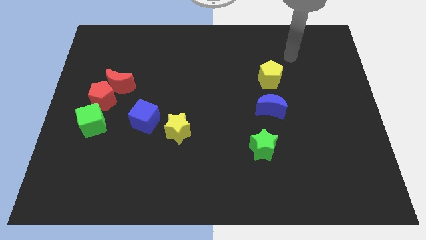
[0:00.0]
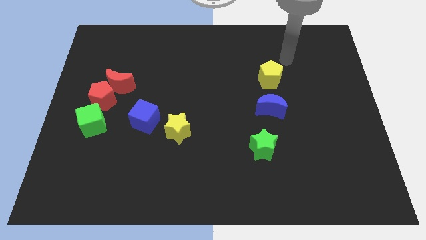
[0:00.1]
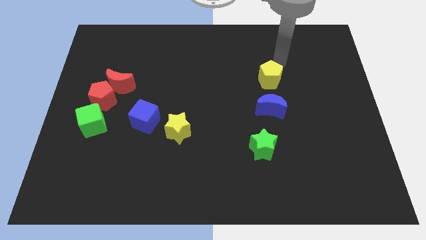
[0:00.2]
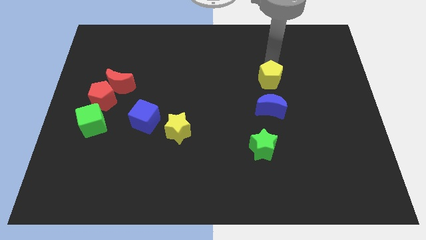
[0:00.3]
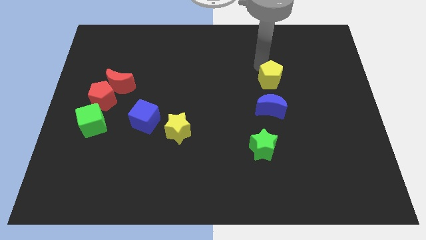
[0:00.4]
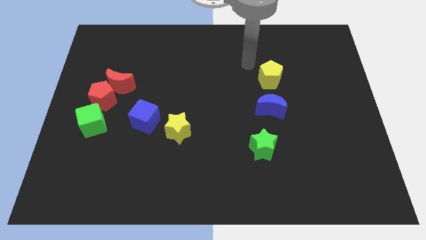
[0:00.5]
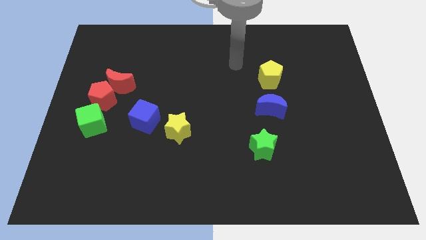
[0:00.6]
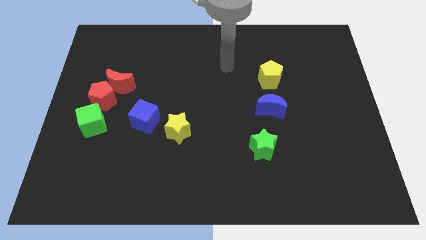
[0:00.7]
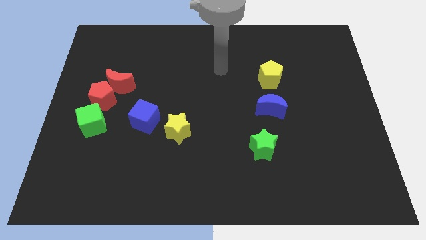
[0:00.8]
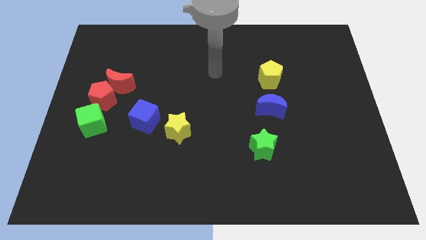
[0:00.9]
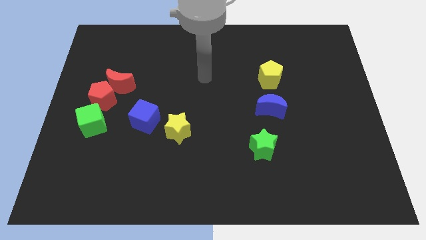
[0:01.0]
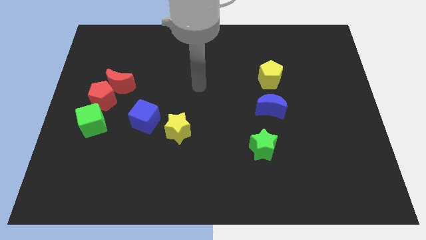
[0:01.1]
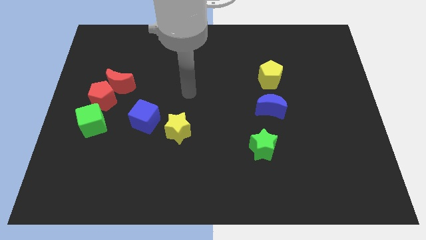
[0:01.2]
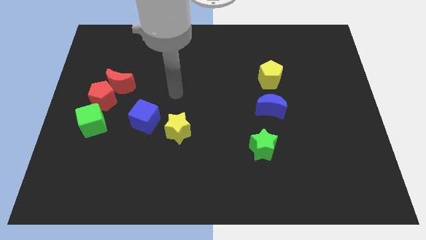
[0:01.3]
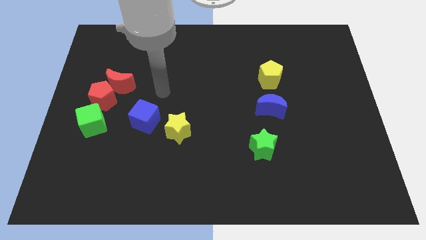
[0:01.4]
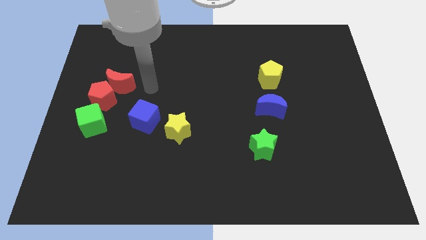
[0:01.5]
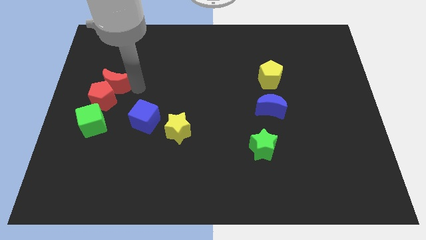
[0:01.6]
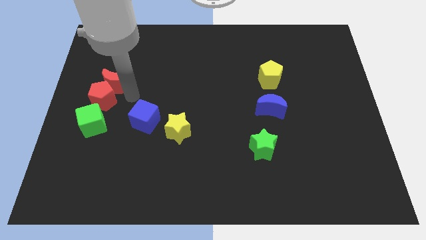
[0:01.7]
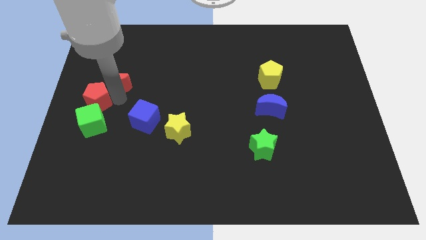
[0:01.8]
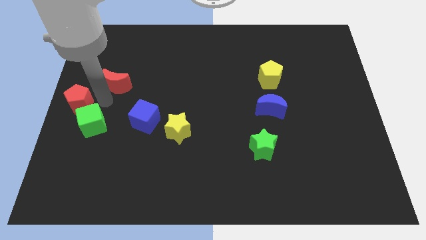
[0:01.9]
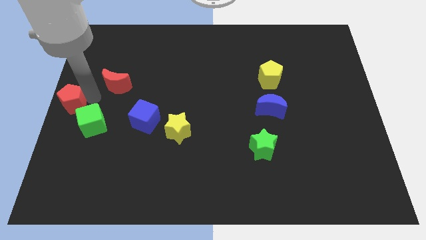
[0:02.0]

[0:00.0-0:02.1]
move the red moon away from the red pentagon

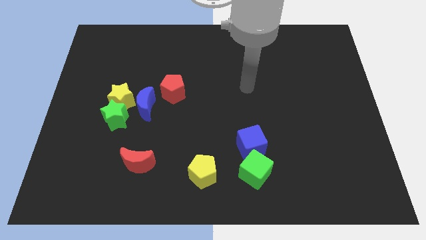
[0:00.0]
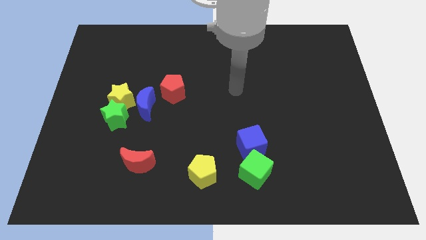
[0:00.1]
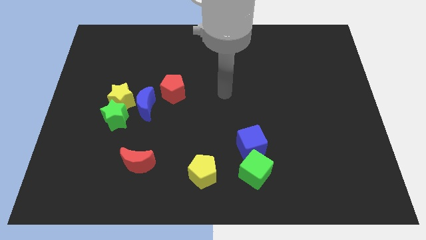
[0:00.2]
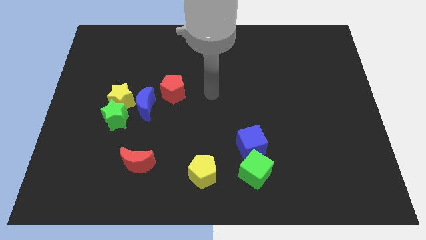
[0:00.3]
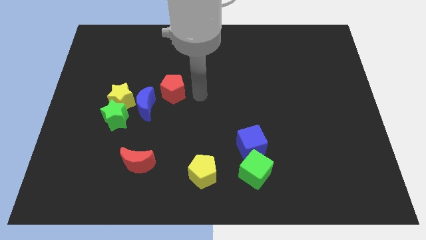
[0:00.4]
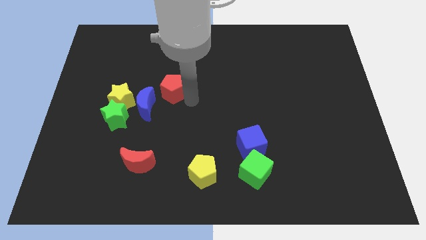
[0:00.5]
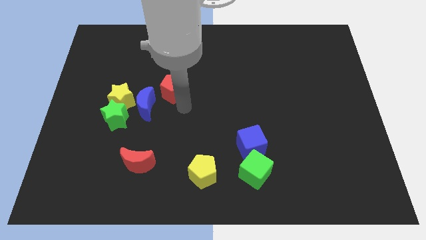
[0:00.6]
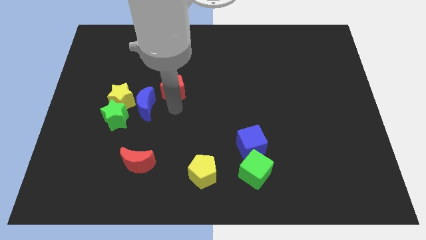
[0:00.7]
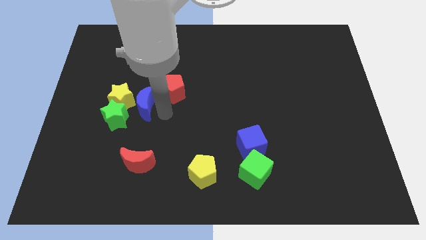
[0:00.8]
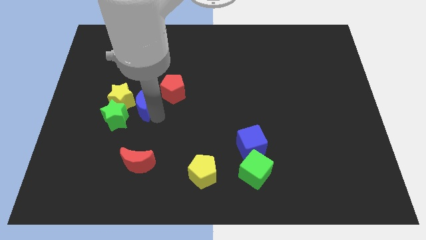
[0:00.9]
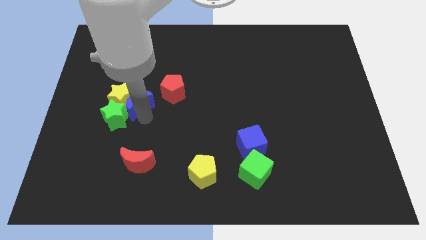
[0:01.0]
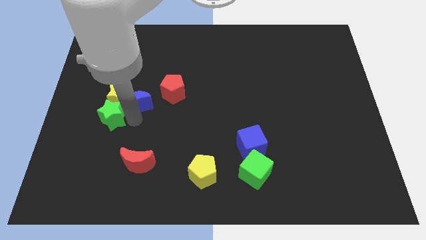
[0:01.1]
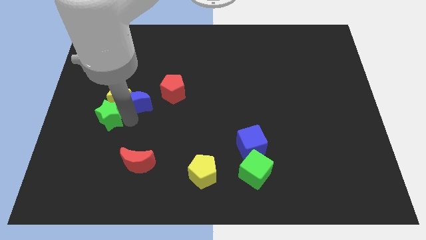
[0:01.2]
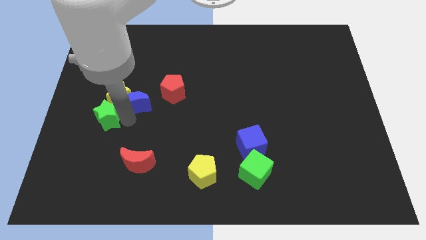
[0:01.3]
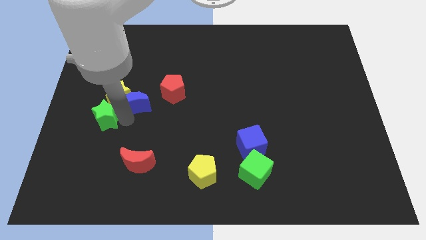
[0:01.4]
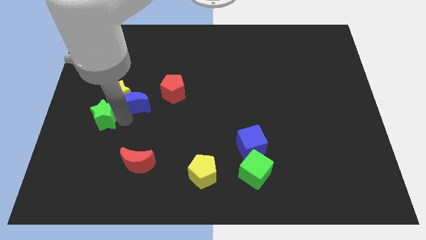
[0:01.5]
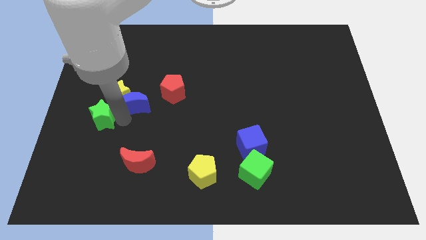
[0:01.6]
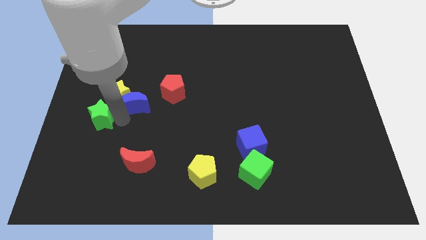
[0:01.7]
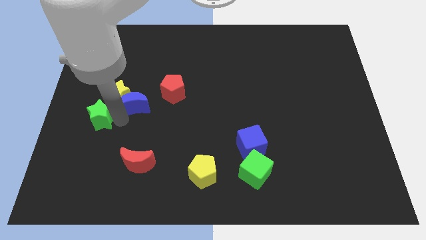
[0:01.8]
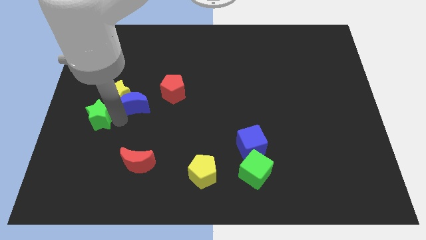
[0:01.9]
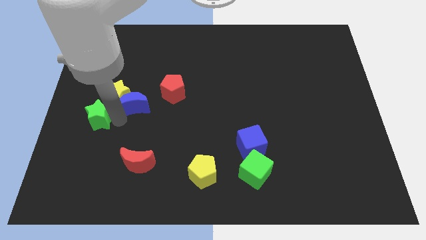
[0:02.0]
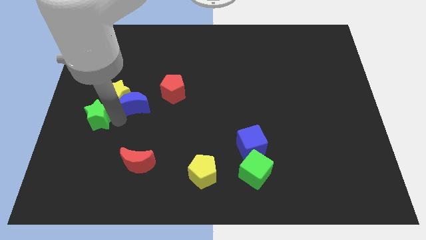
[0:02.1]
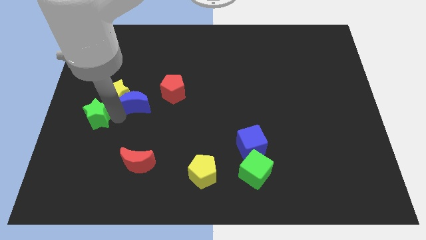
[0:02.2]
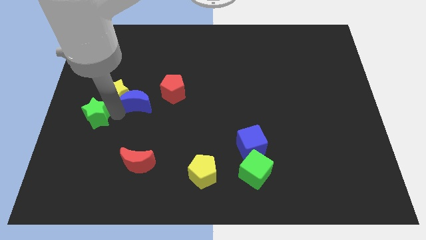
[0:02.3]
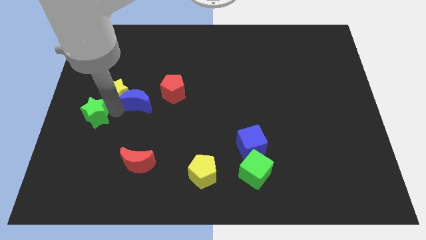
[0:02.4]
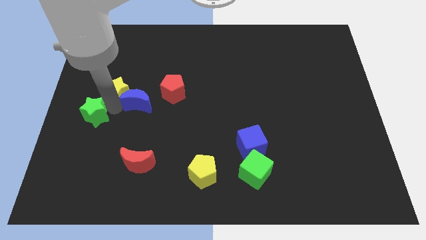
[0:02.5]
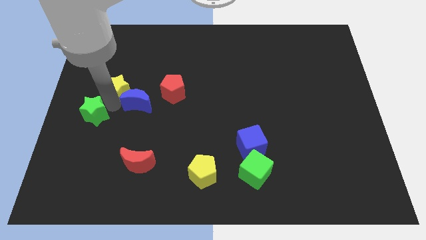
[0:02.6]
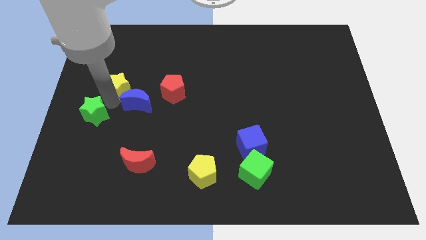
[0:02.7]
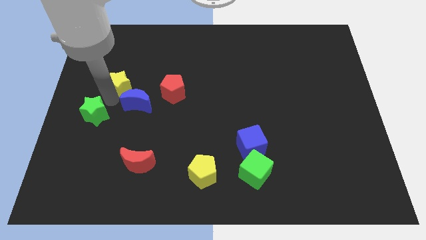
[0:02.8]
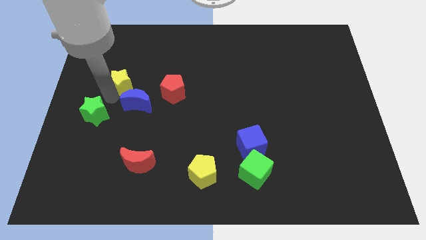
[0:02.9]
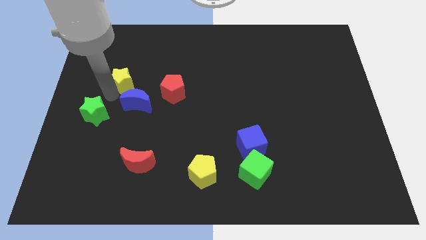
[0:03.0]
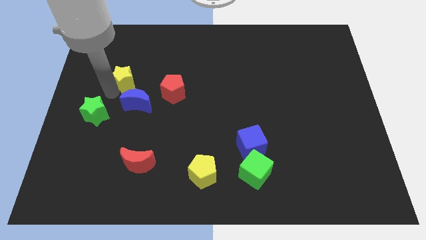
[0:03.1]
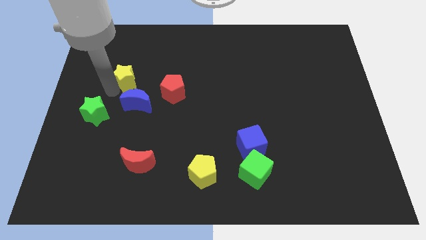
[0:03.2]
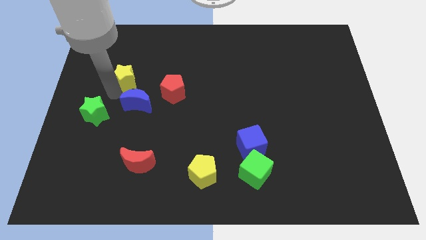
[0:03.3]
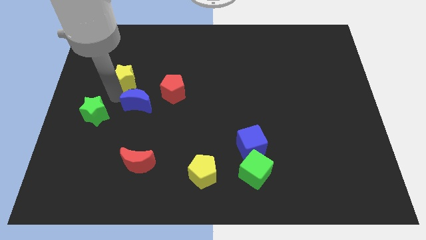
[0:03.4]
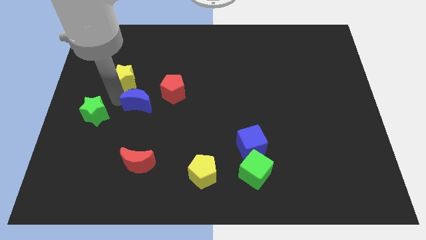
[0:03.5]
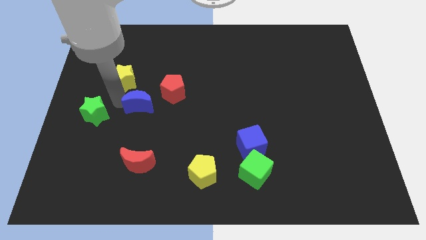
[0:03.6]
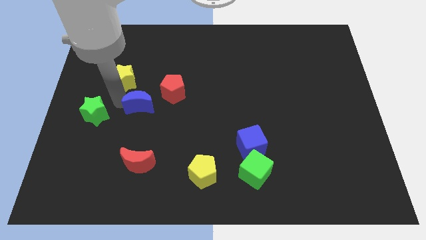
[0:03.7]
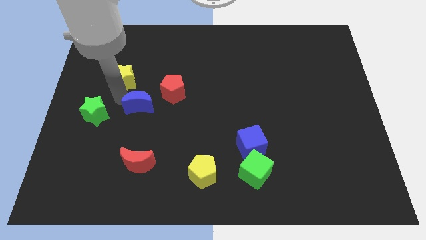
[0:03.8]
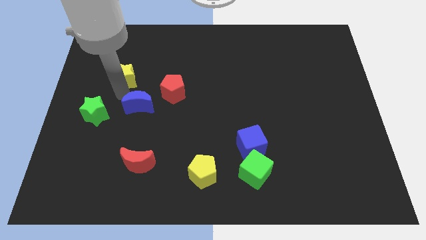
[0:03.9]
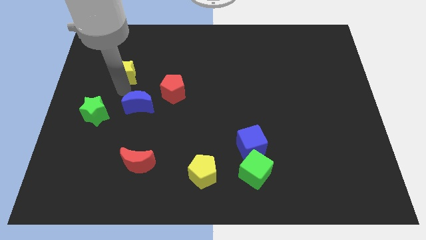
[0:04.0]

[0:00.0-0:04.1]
pull the yellow star apart from the green star and blue moon

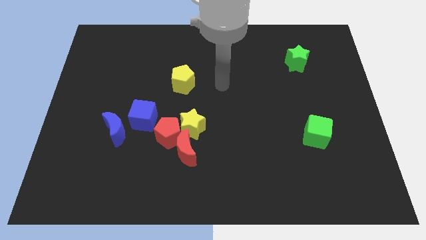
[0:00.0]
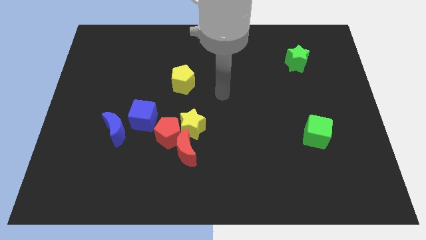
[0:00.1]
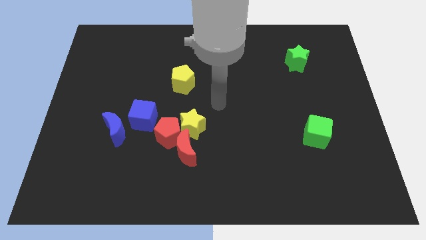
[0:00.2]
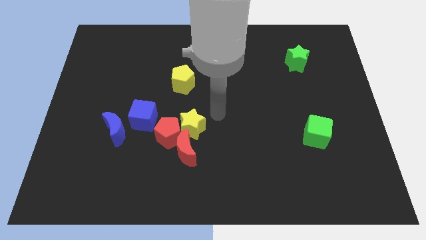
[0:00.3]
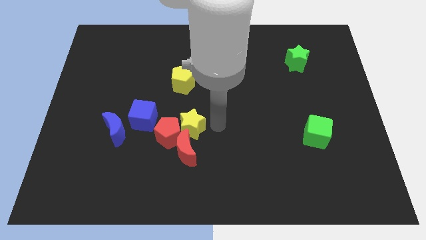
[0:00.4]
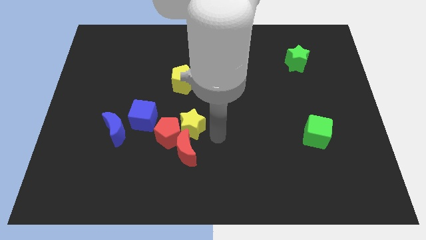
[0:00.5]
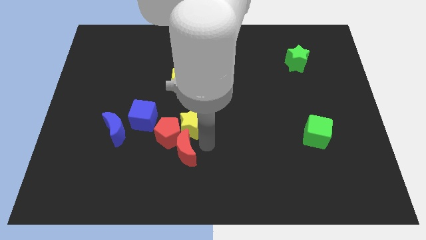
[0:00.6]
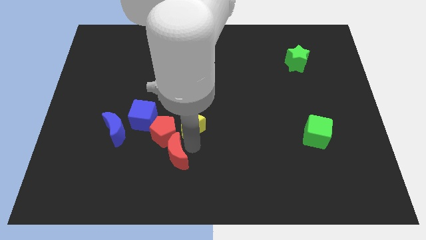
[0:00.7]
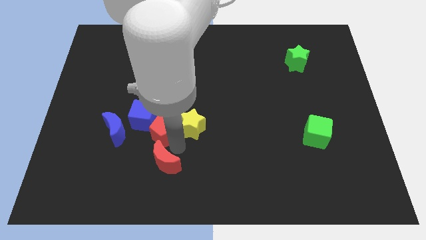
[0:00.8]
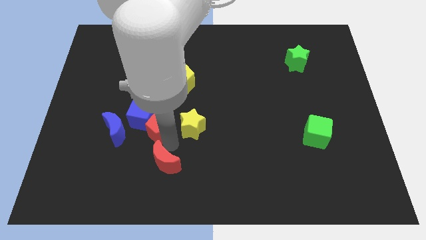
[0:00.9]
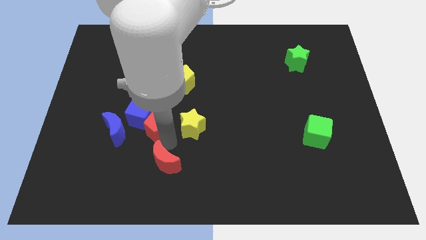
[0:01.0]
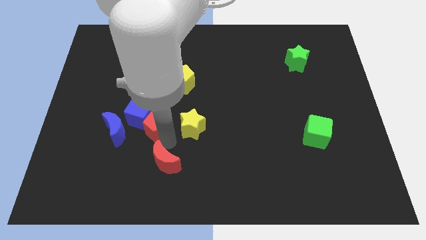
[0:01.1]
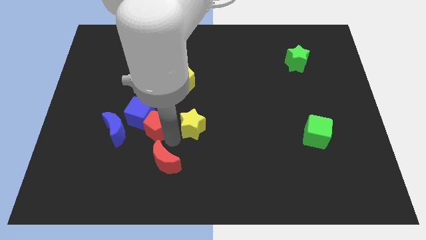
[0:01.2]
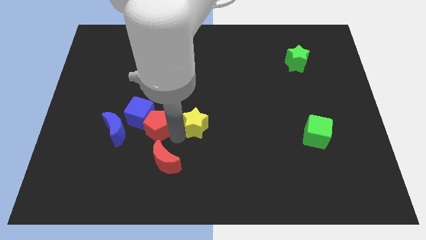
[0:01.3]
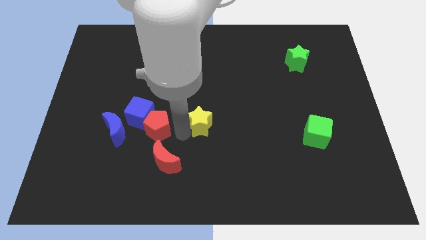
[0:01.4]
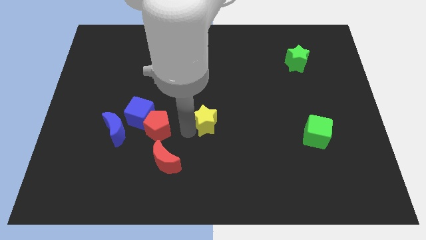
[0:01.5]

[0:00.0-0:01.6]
move the yellow star away from the red pentagon and red moon

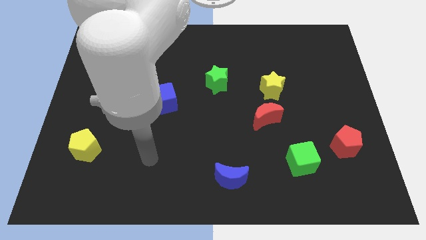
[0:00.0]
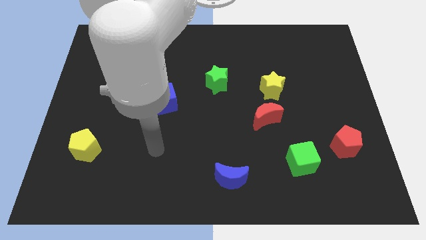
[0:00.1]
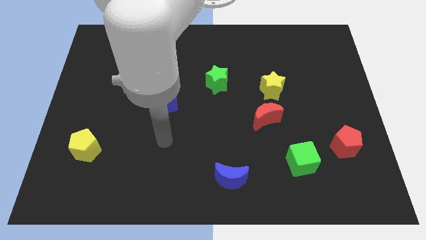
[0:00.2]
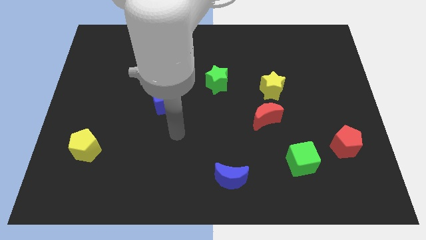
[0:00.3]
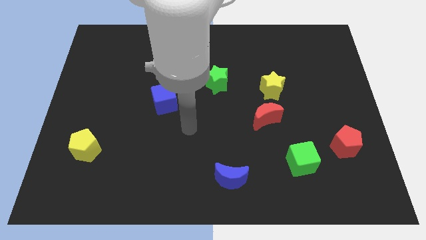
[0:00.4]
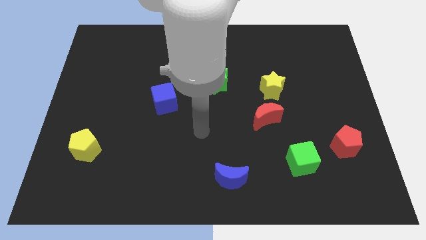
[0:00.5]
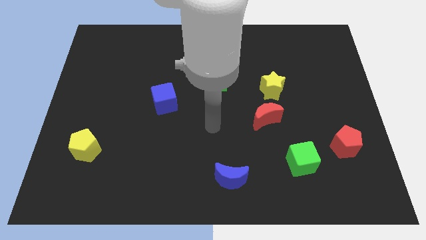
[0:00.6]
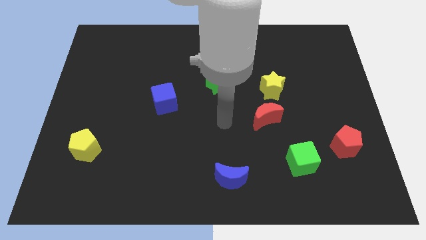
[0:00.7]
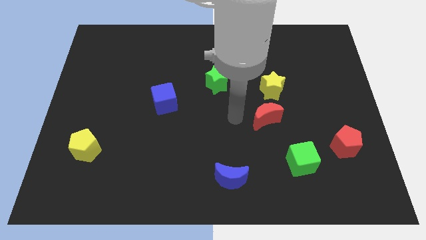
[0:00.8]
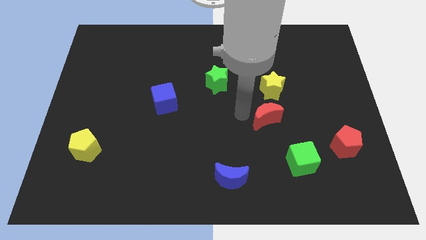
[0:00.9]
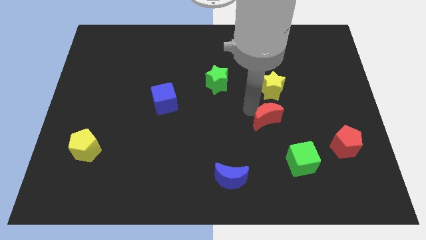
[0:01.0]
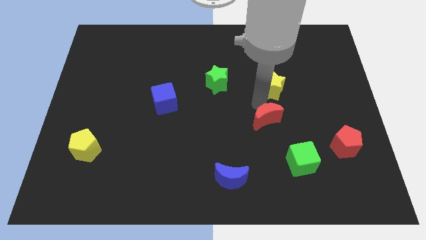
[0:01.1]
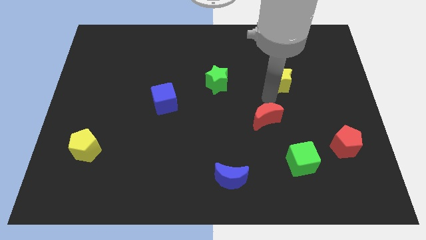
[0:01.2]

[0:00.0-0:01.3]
move the red moon away from the yellow star

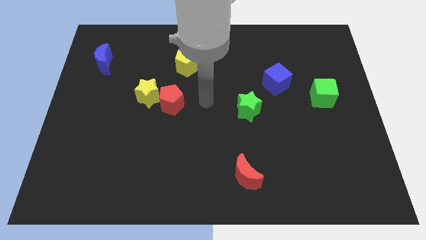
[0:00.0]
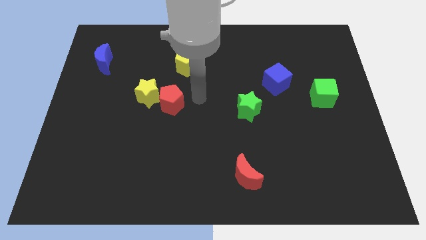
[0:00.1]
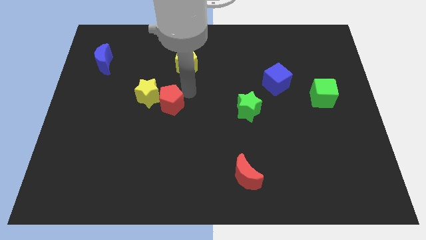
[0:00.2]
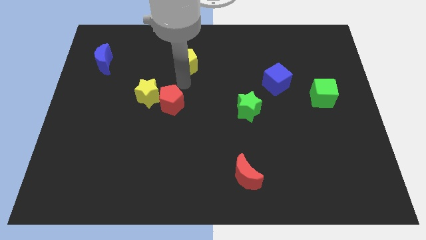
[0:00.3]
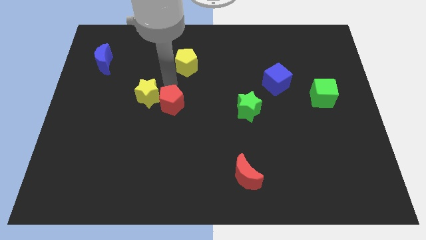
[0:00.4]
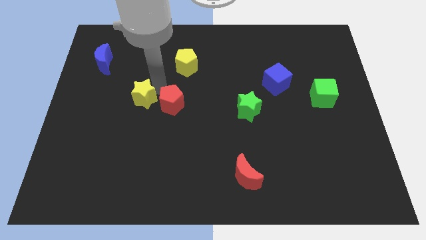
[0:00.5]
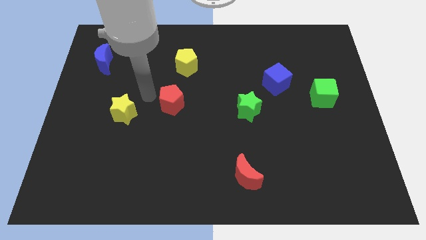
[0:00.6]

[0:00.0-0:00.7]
move the red pentagon away from the yellow star
